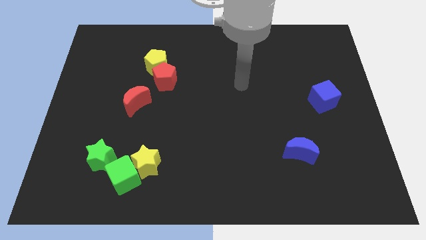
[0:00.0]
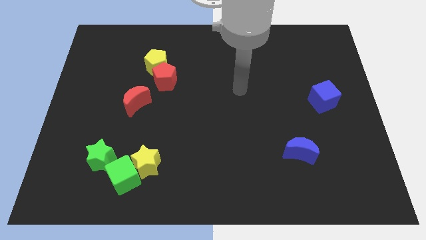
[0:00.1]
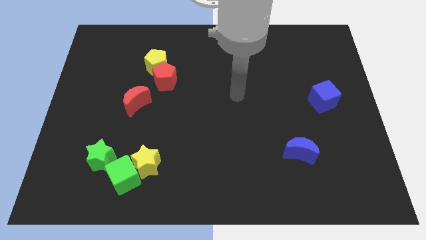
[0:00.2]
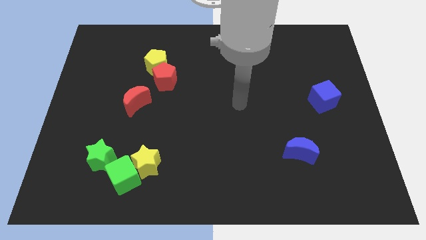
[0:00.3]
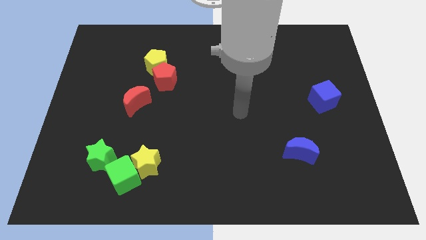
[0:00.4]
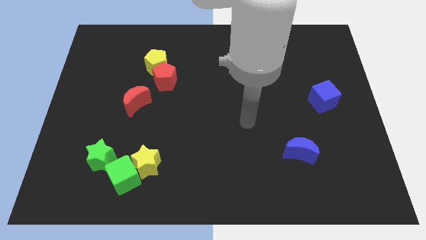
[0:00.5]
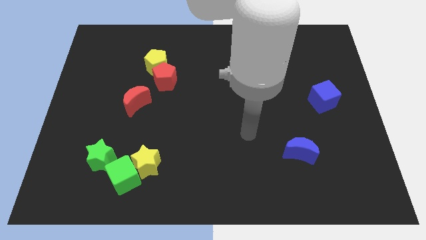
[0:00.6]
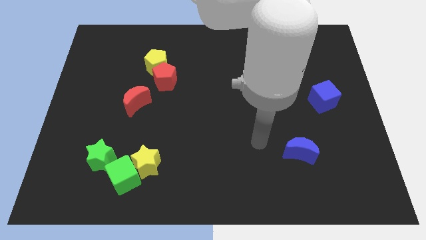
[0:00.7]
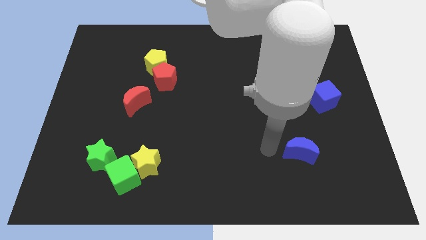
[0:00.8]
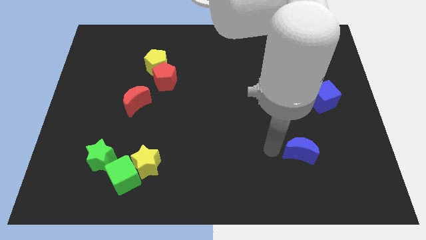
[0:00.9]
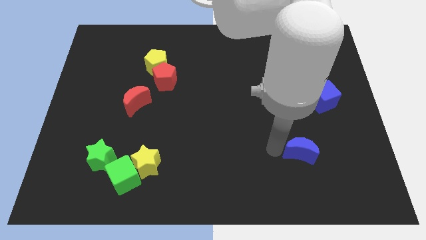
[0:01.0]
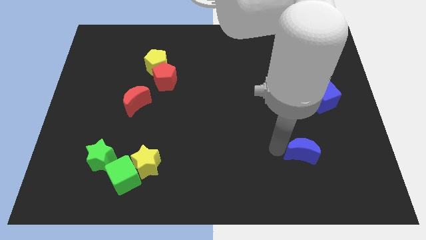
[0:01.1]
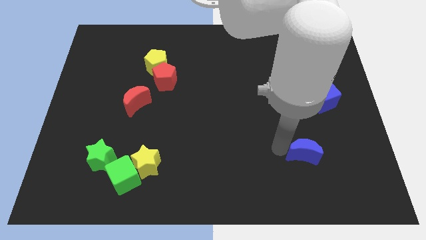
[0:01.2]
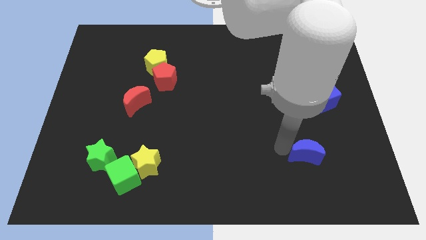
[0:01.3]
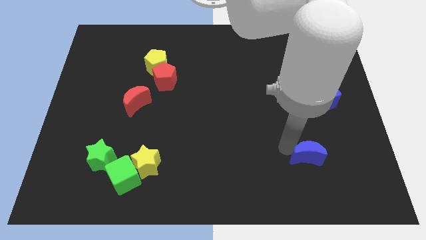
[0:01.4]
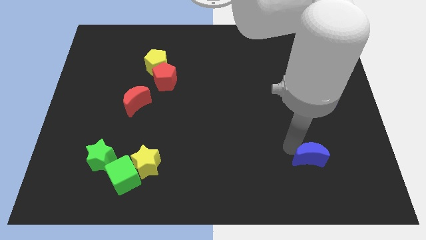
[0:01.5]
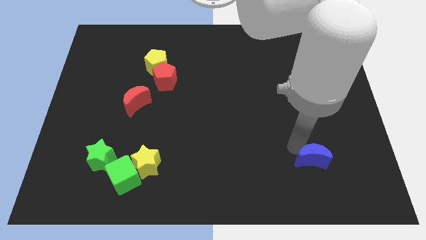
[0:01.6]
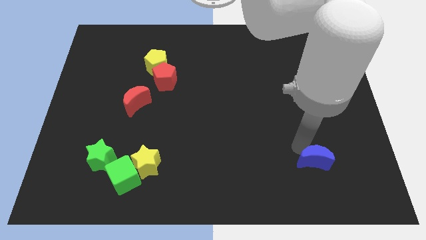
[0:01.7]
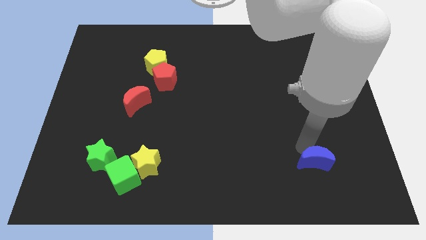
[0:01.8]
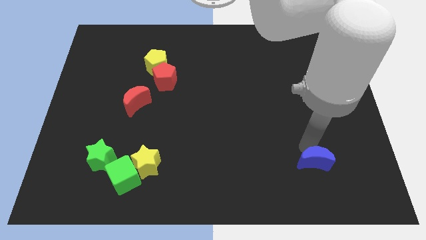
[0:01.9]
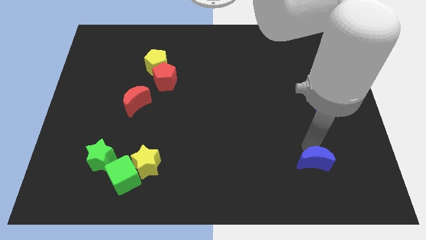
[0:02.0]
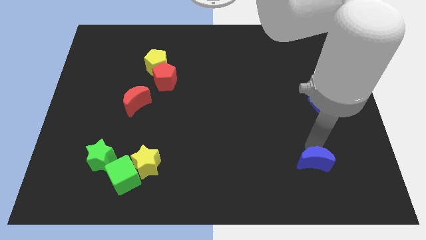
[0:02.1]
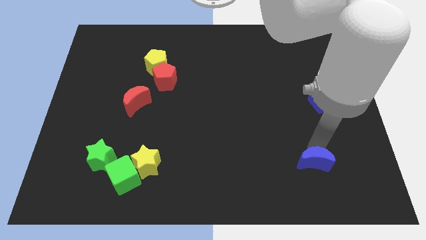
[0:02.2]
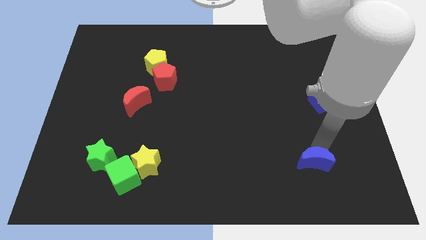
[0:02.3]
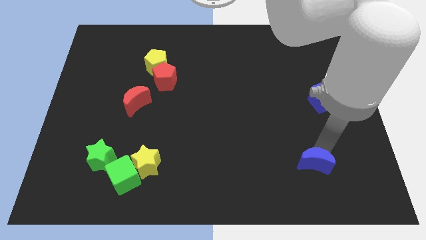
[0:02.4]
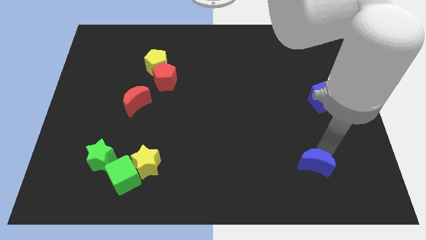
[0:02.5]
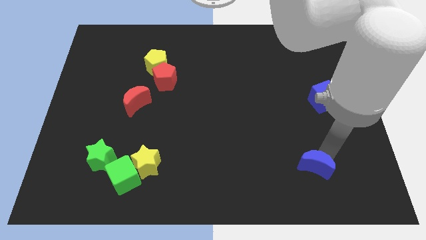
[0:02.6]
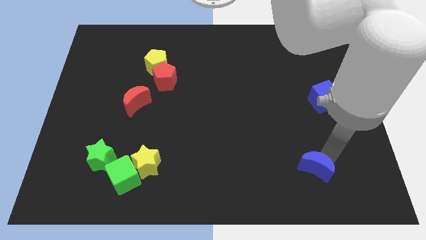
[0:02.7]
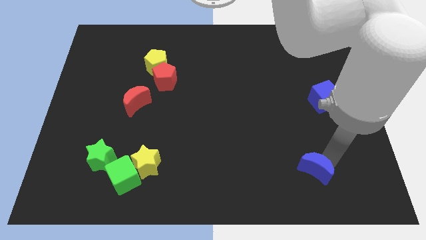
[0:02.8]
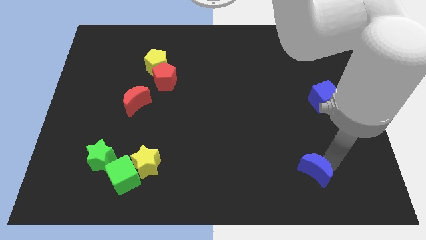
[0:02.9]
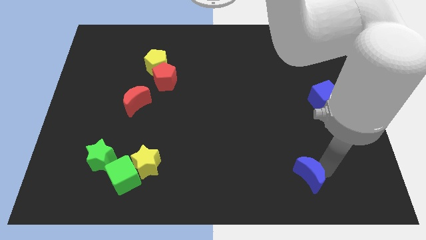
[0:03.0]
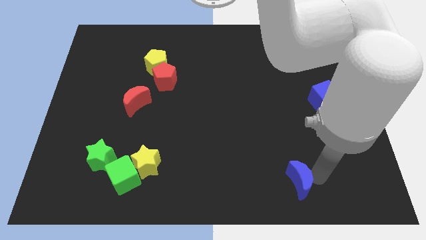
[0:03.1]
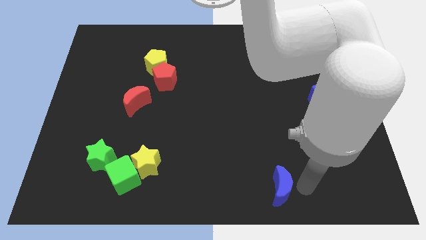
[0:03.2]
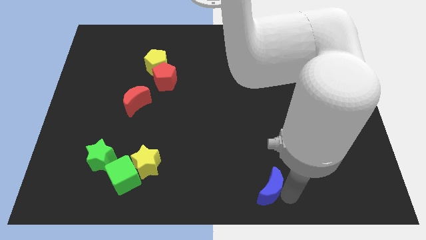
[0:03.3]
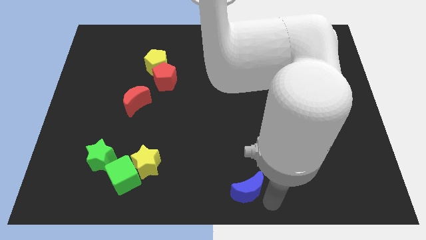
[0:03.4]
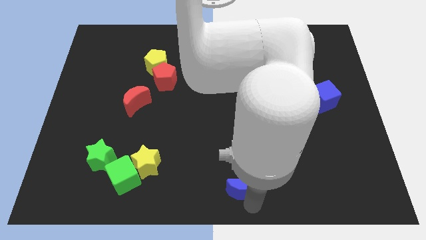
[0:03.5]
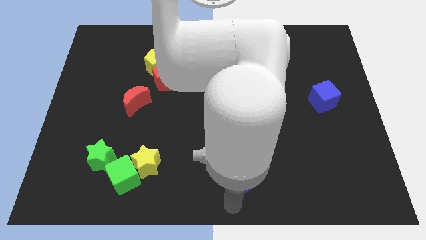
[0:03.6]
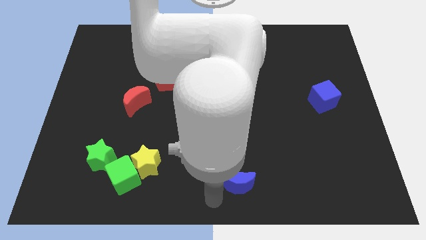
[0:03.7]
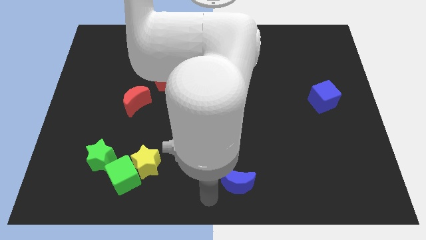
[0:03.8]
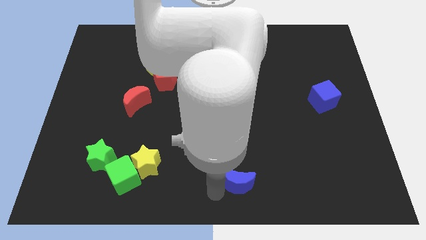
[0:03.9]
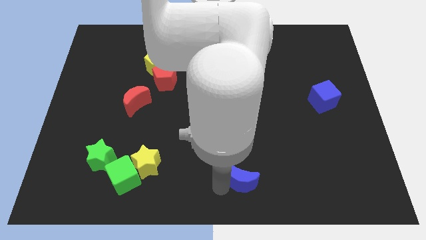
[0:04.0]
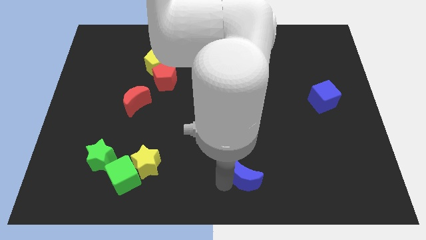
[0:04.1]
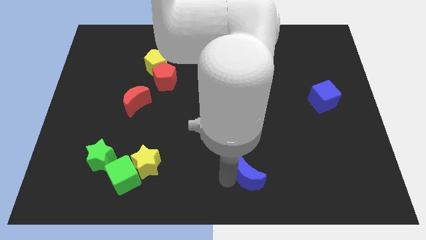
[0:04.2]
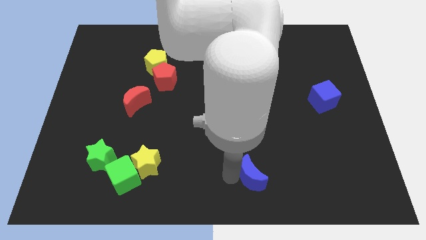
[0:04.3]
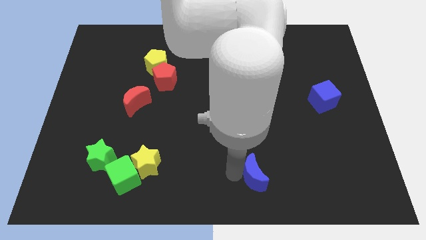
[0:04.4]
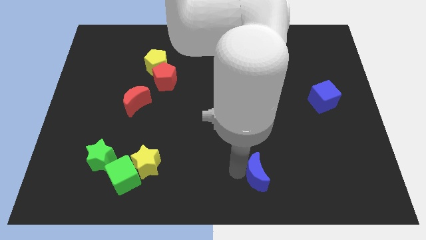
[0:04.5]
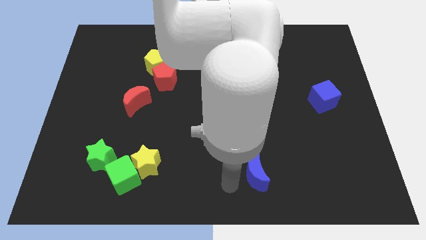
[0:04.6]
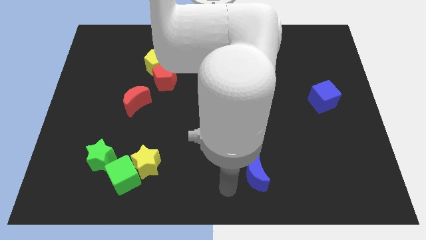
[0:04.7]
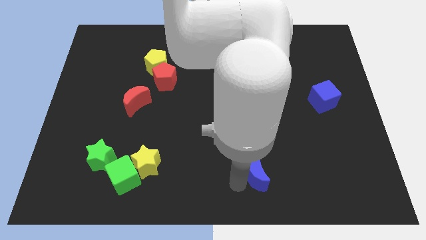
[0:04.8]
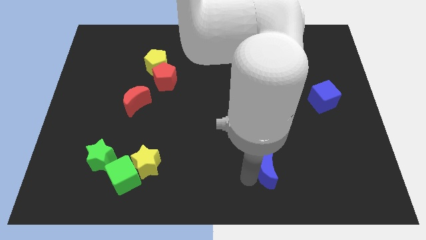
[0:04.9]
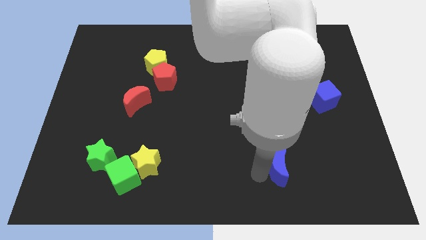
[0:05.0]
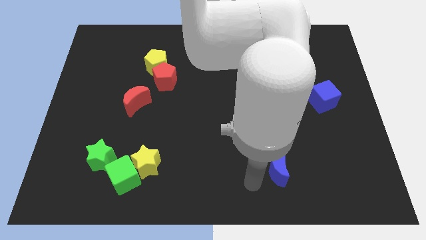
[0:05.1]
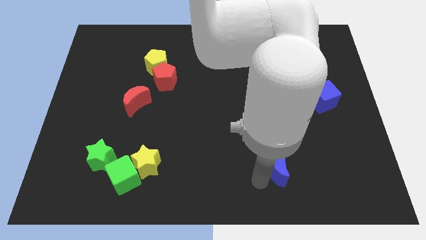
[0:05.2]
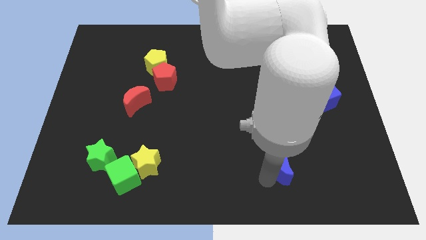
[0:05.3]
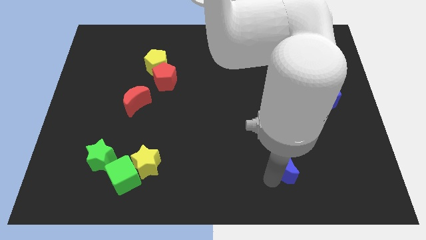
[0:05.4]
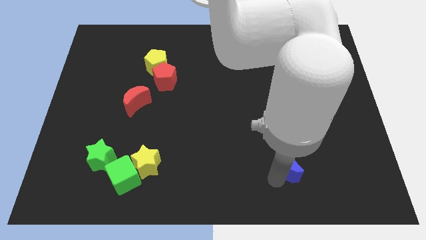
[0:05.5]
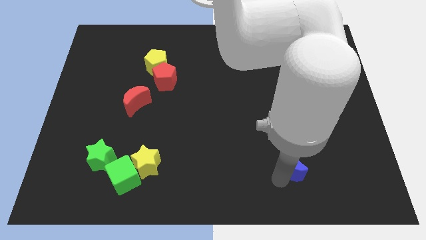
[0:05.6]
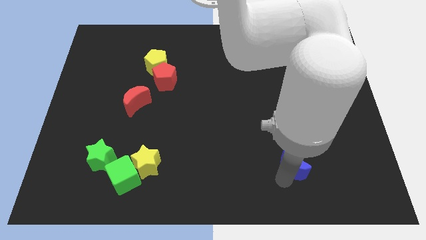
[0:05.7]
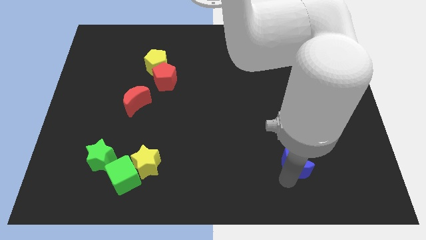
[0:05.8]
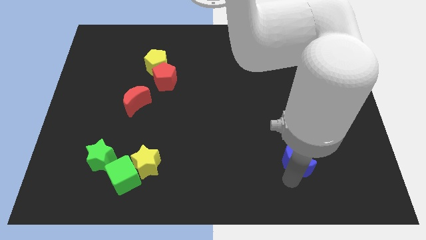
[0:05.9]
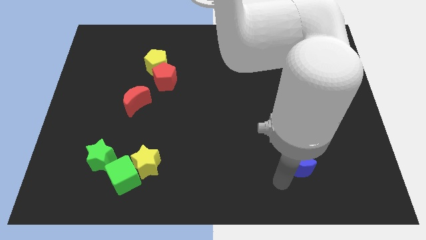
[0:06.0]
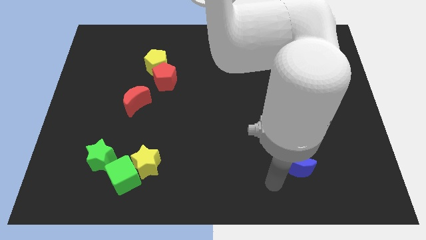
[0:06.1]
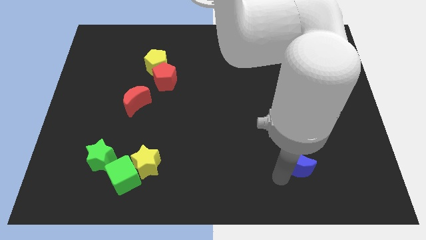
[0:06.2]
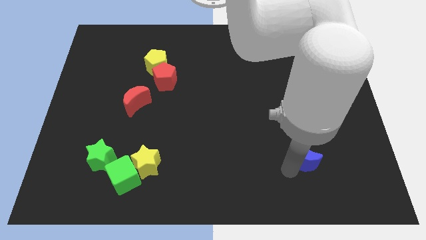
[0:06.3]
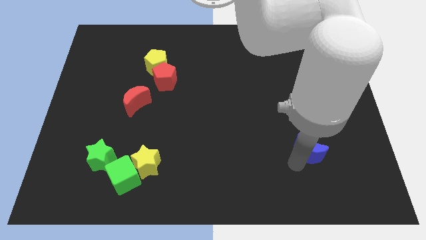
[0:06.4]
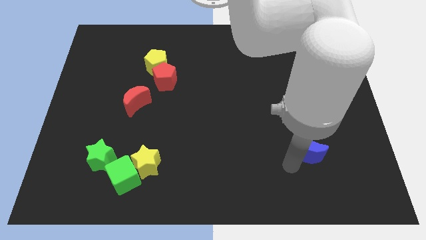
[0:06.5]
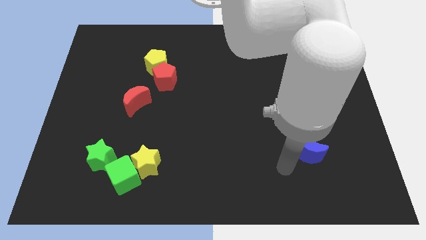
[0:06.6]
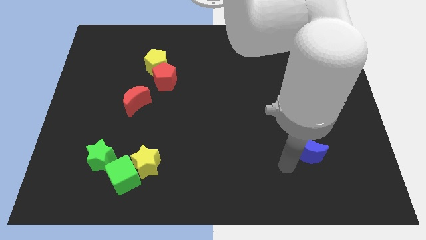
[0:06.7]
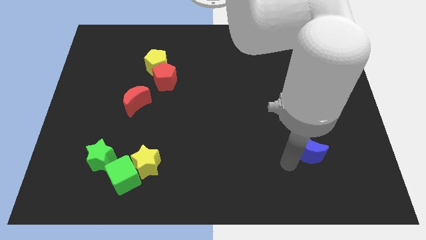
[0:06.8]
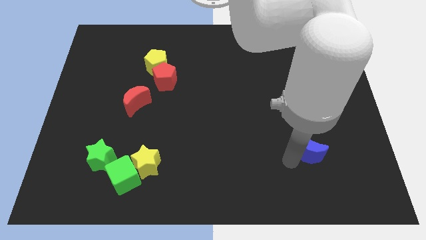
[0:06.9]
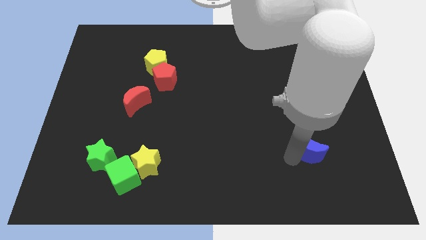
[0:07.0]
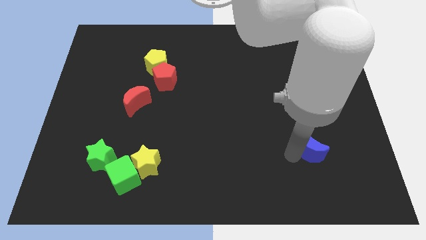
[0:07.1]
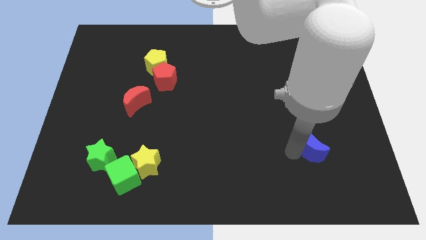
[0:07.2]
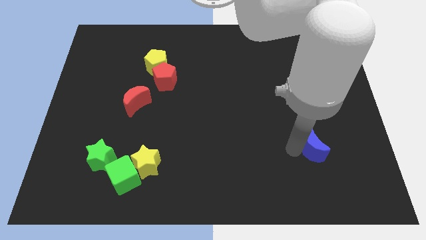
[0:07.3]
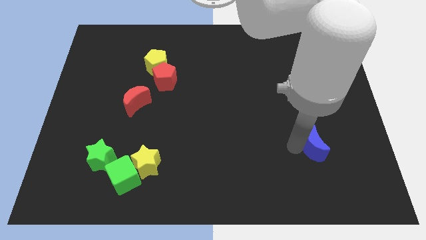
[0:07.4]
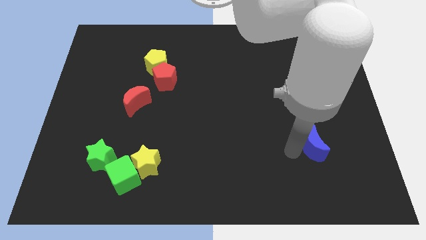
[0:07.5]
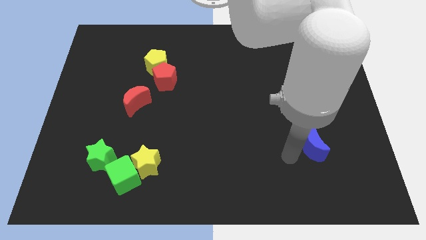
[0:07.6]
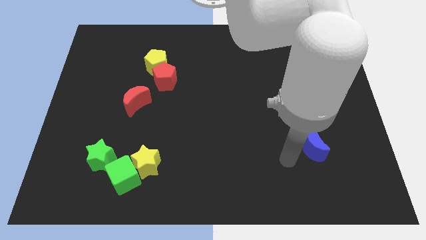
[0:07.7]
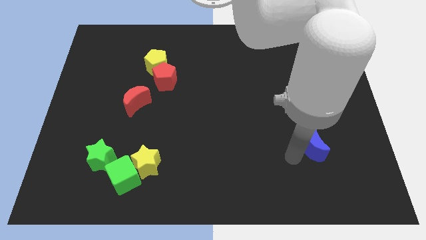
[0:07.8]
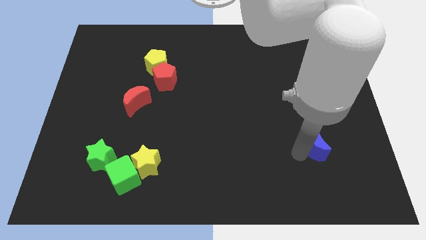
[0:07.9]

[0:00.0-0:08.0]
push the blue moon to the bottom of the blue cube
